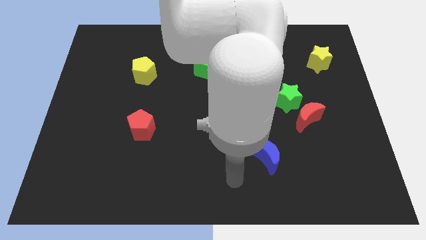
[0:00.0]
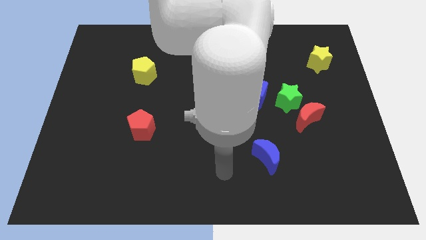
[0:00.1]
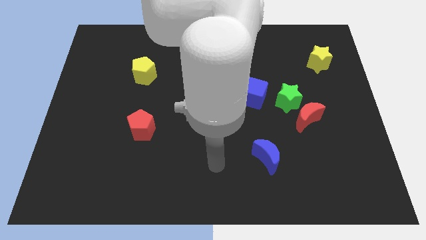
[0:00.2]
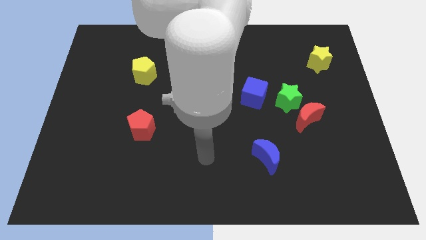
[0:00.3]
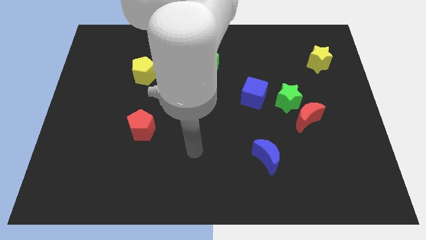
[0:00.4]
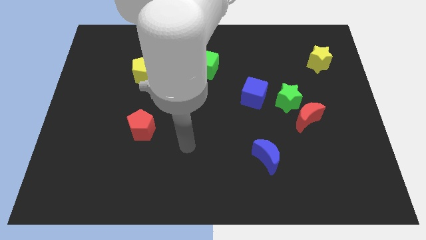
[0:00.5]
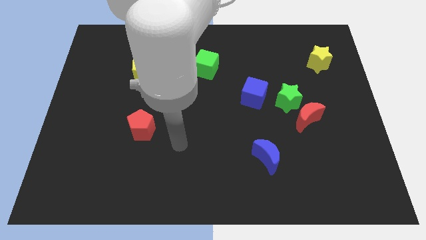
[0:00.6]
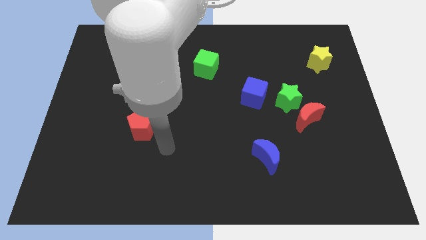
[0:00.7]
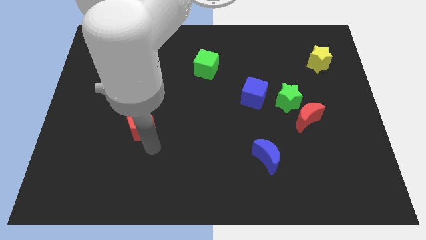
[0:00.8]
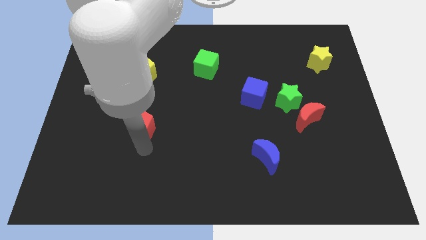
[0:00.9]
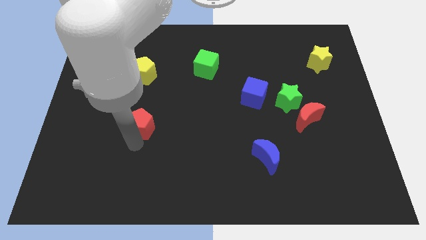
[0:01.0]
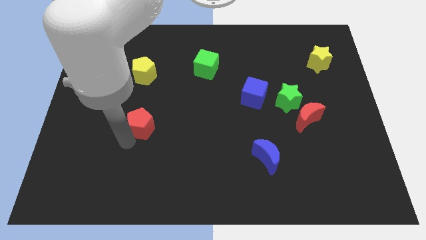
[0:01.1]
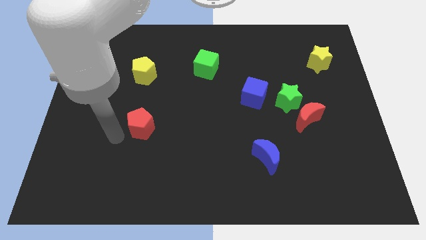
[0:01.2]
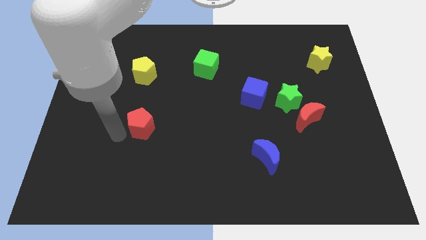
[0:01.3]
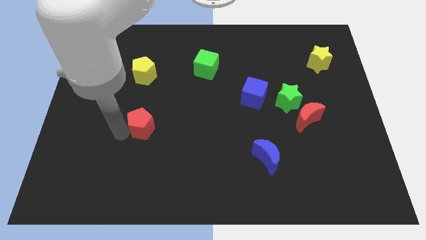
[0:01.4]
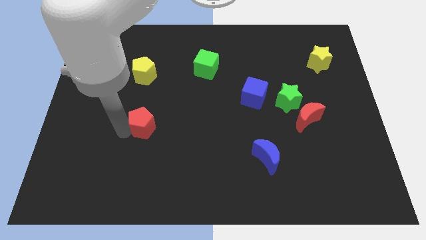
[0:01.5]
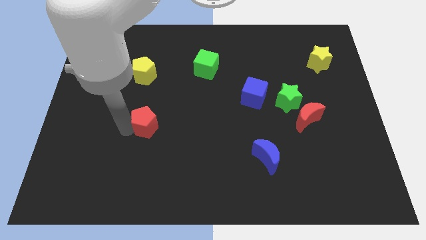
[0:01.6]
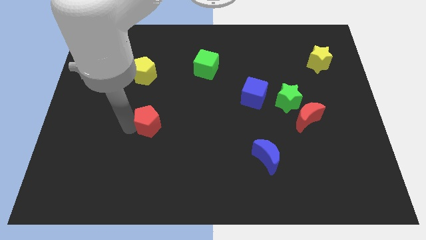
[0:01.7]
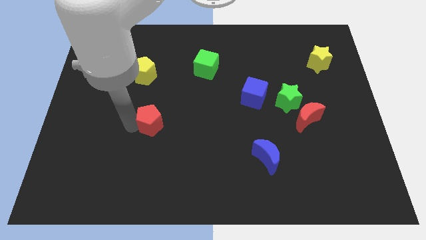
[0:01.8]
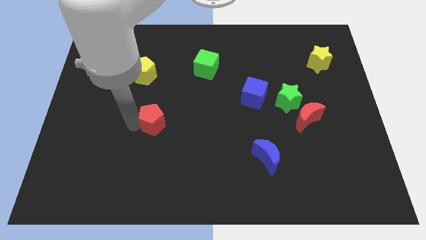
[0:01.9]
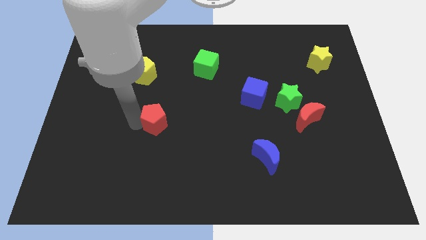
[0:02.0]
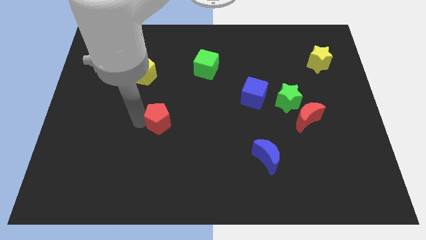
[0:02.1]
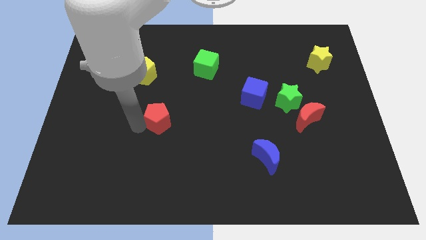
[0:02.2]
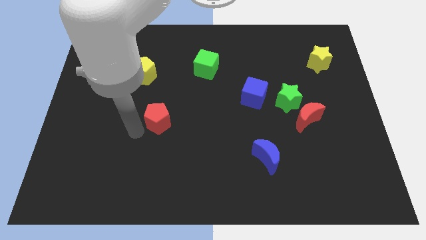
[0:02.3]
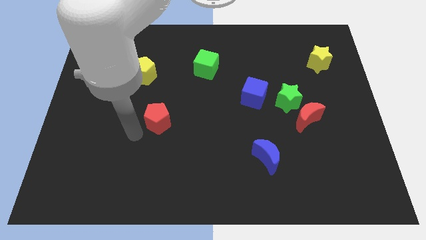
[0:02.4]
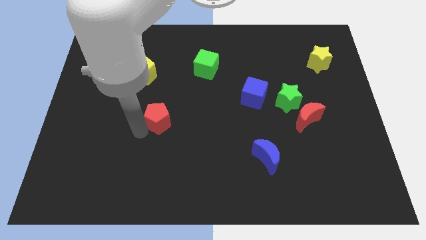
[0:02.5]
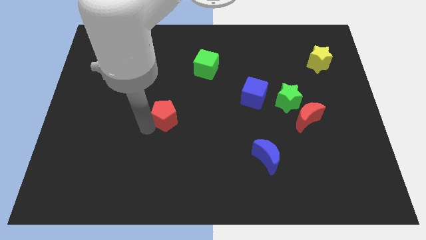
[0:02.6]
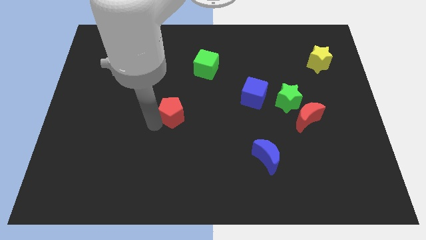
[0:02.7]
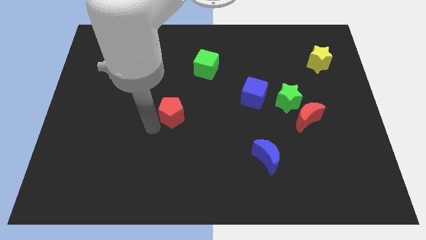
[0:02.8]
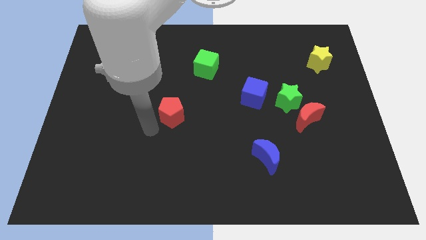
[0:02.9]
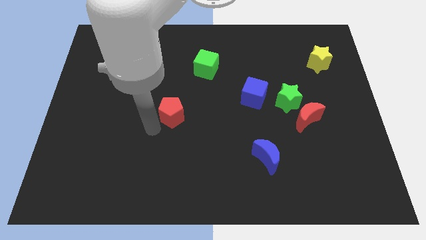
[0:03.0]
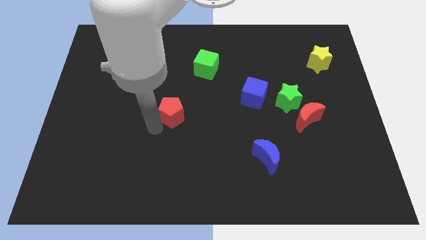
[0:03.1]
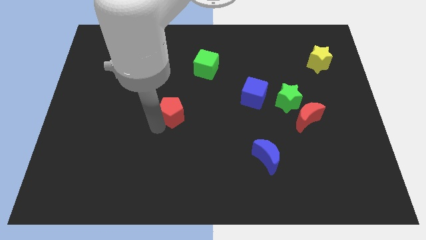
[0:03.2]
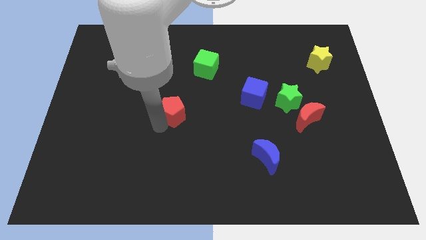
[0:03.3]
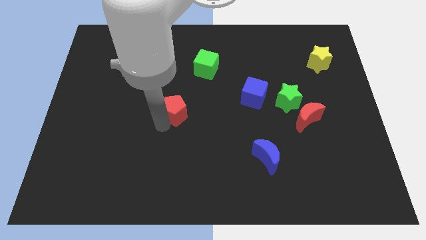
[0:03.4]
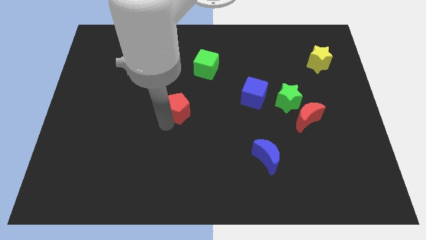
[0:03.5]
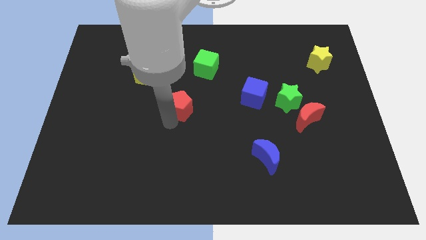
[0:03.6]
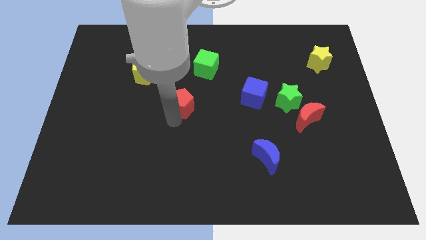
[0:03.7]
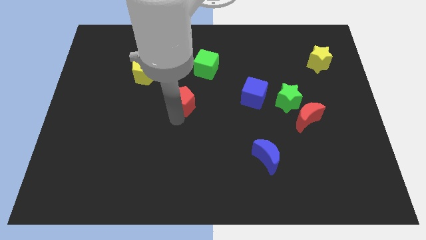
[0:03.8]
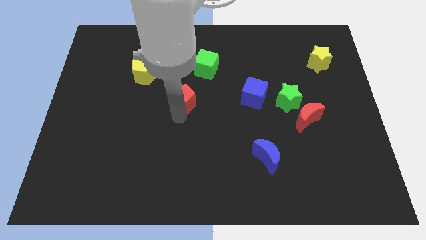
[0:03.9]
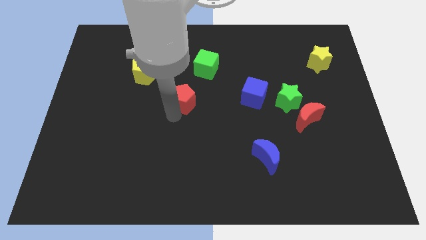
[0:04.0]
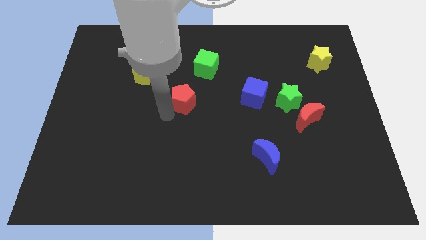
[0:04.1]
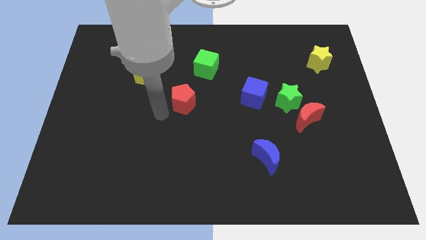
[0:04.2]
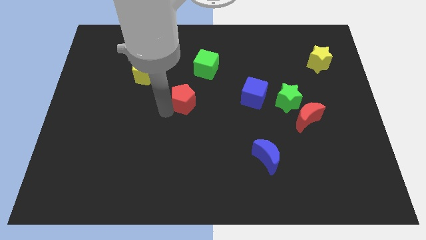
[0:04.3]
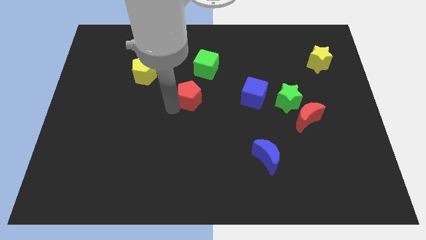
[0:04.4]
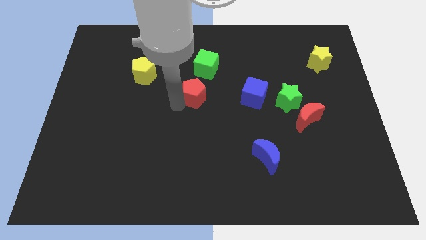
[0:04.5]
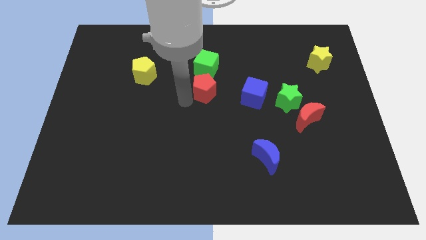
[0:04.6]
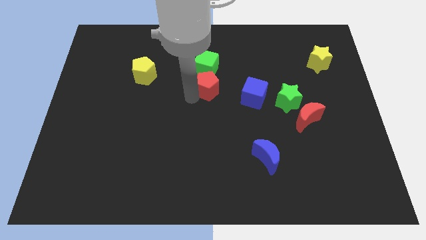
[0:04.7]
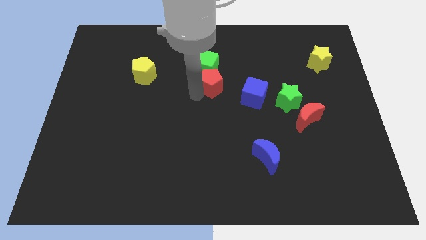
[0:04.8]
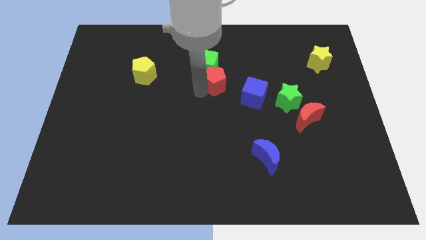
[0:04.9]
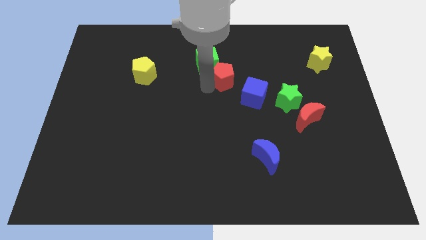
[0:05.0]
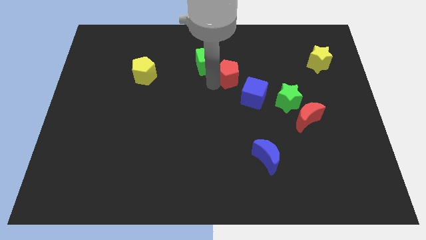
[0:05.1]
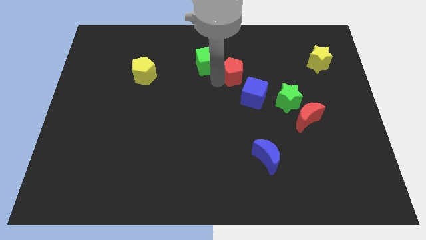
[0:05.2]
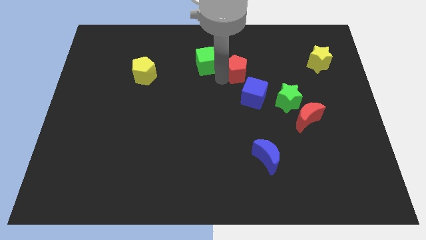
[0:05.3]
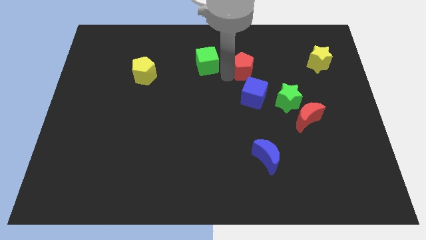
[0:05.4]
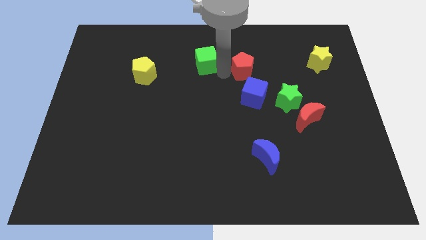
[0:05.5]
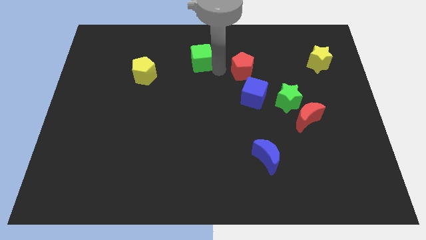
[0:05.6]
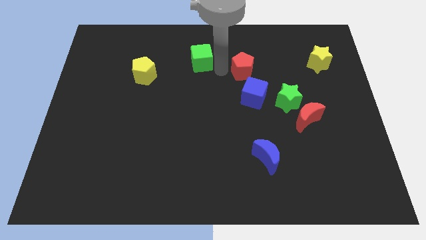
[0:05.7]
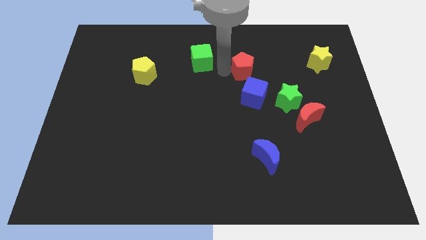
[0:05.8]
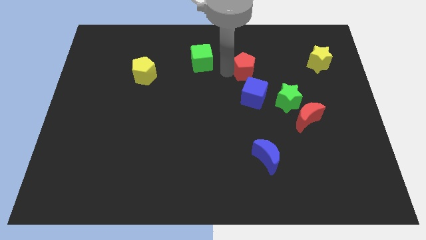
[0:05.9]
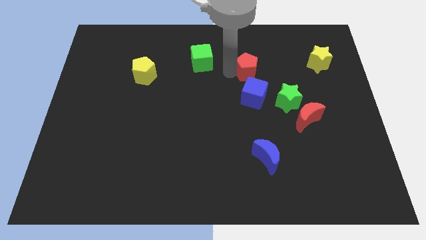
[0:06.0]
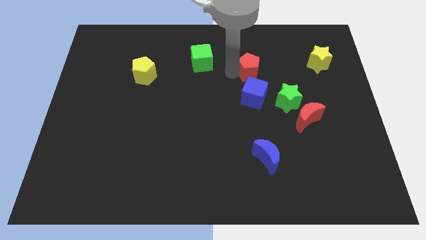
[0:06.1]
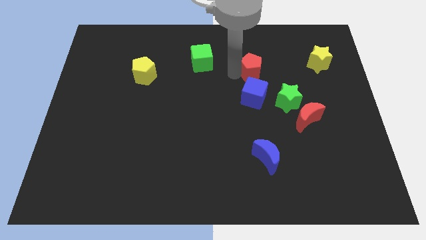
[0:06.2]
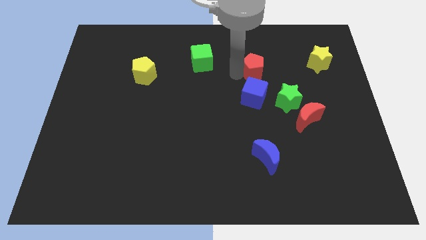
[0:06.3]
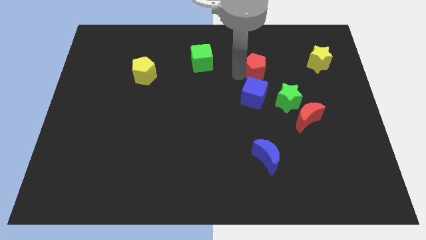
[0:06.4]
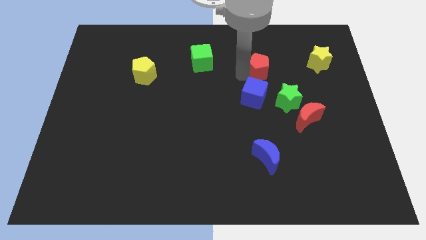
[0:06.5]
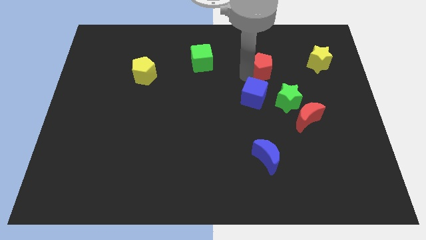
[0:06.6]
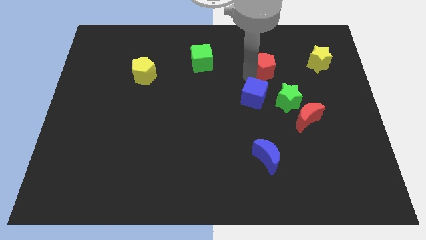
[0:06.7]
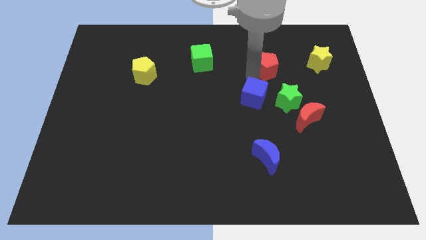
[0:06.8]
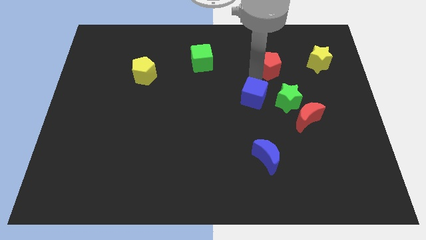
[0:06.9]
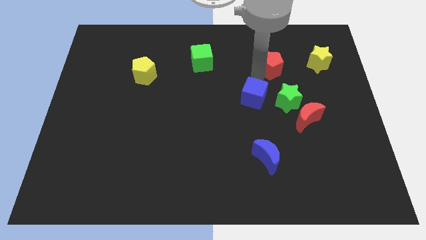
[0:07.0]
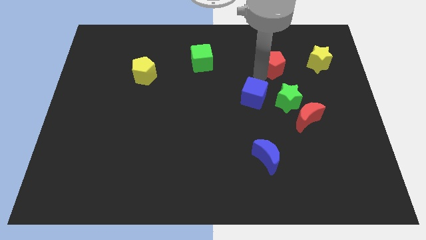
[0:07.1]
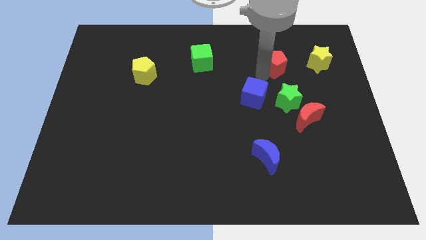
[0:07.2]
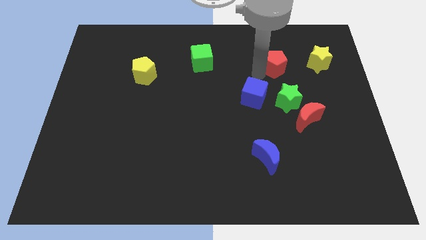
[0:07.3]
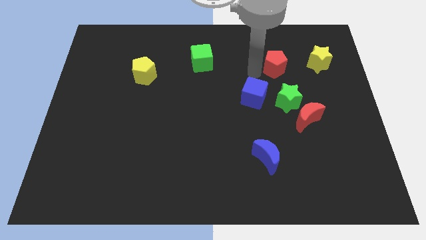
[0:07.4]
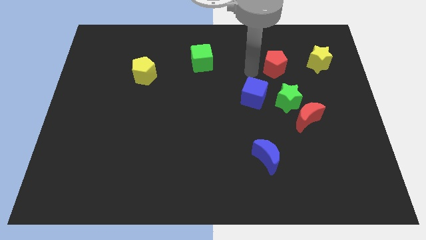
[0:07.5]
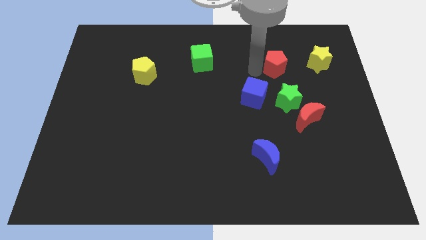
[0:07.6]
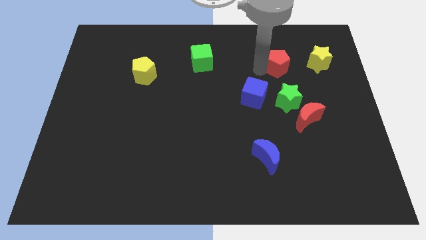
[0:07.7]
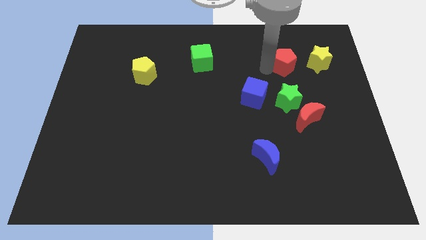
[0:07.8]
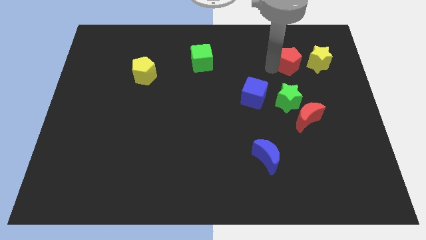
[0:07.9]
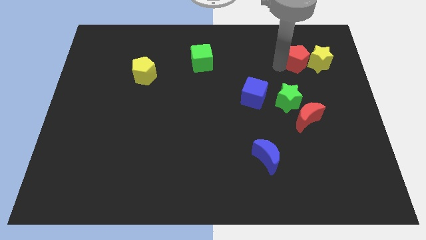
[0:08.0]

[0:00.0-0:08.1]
slide the red pentagon to the yellow star
